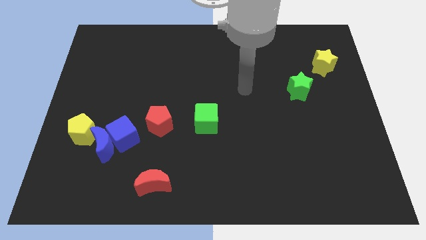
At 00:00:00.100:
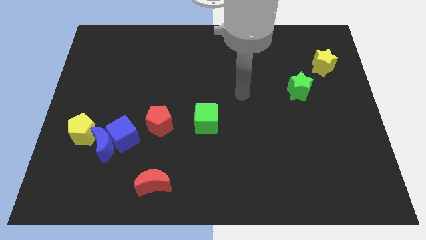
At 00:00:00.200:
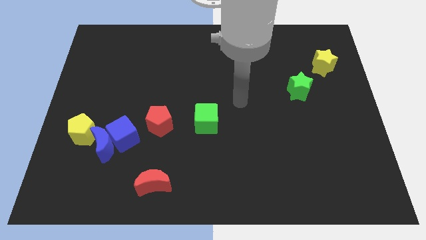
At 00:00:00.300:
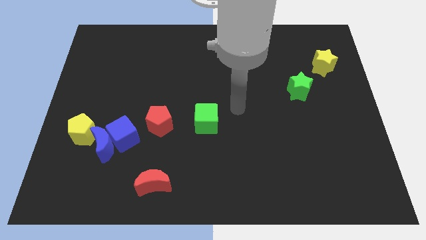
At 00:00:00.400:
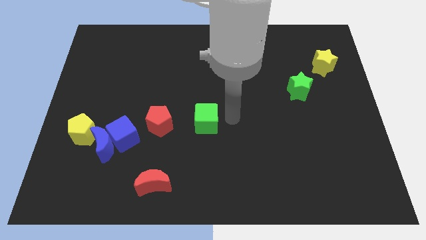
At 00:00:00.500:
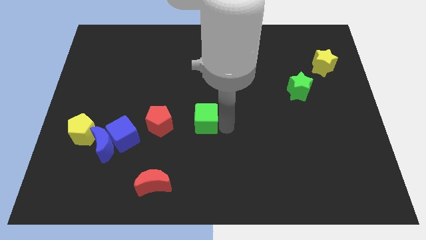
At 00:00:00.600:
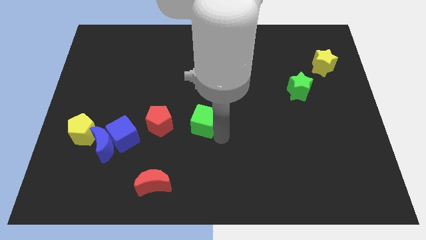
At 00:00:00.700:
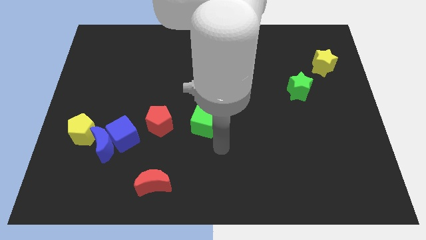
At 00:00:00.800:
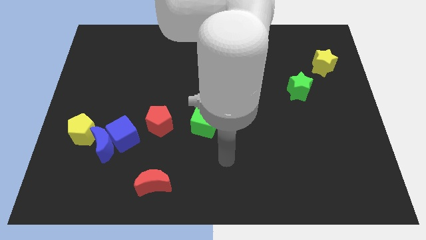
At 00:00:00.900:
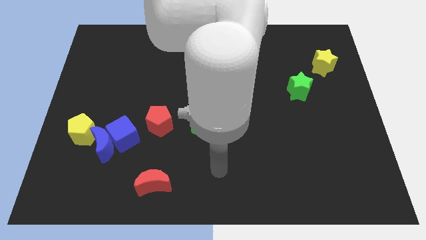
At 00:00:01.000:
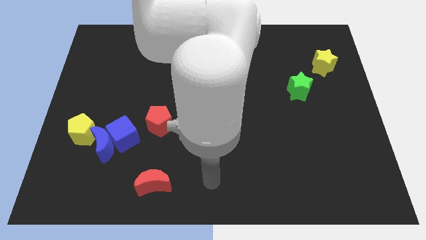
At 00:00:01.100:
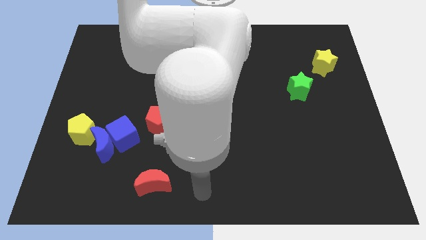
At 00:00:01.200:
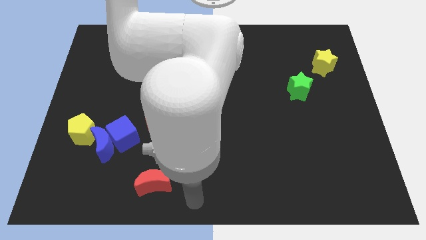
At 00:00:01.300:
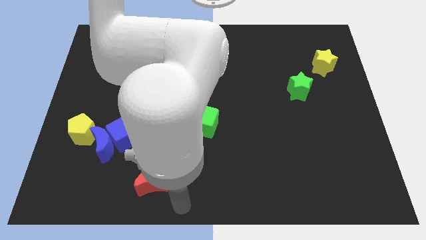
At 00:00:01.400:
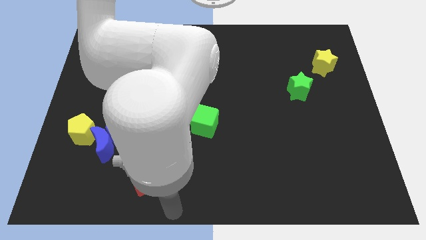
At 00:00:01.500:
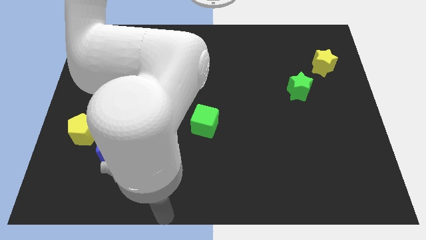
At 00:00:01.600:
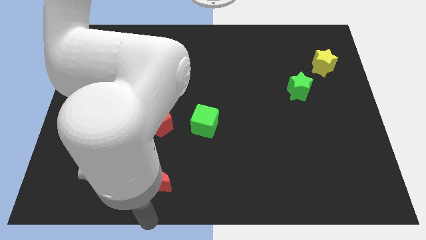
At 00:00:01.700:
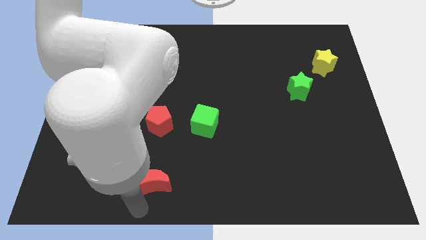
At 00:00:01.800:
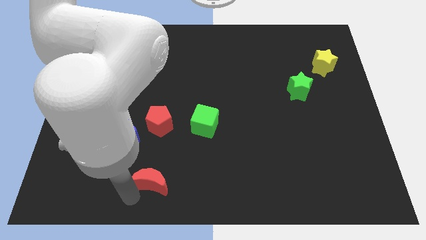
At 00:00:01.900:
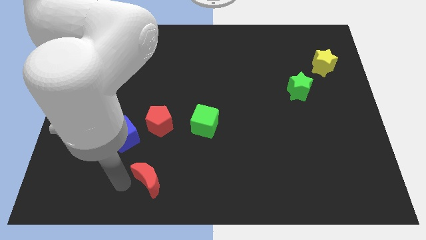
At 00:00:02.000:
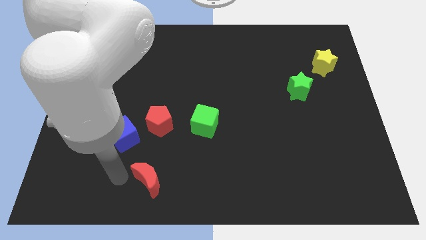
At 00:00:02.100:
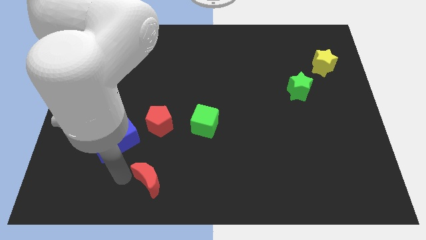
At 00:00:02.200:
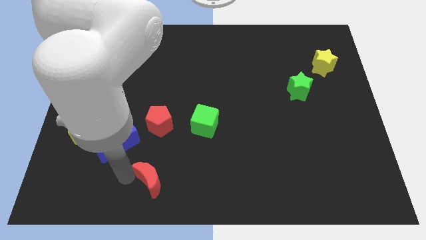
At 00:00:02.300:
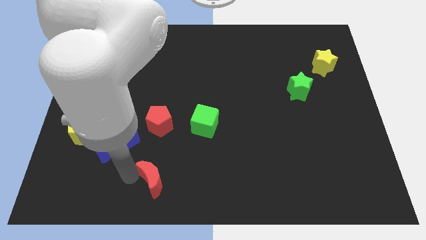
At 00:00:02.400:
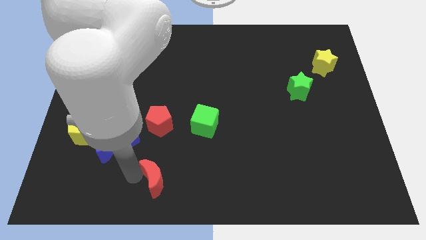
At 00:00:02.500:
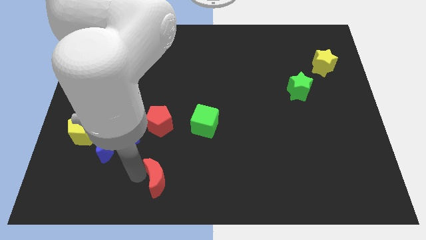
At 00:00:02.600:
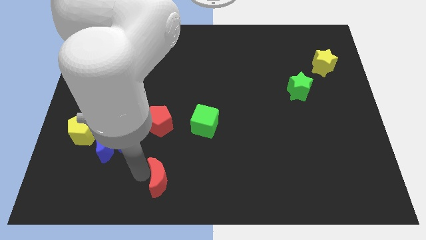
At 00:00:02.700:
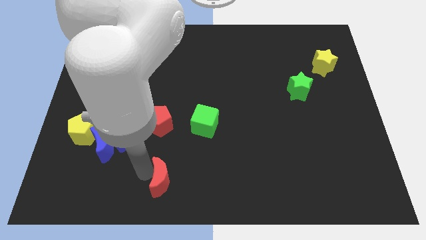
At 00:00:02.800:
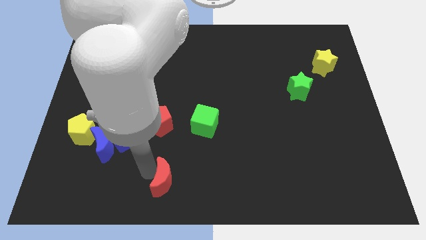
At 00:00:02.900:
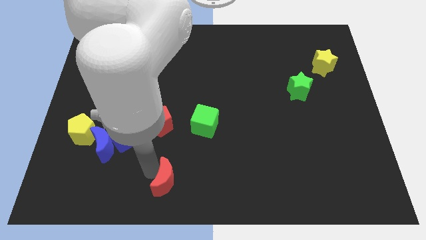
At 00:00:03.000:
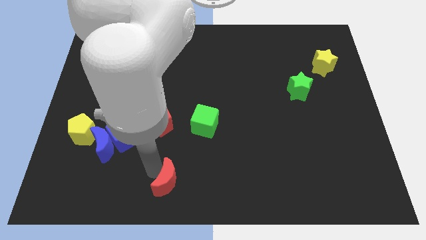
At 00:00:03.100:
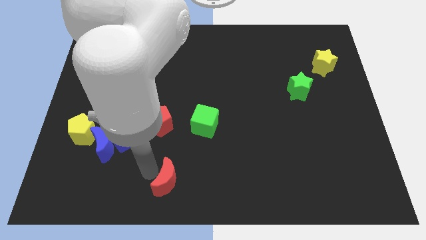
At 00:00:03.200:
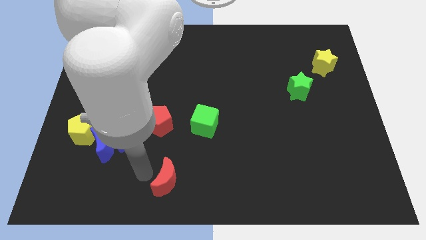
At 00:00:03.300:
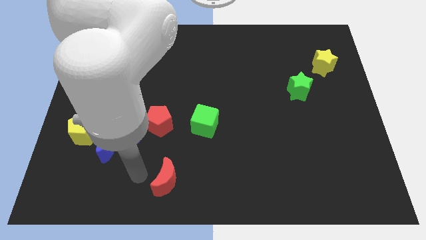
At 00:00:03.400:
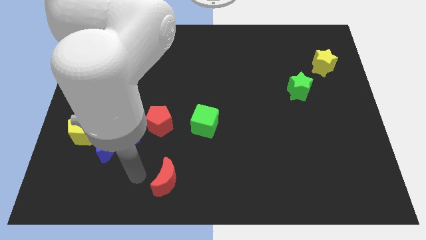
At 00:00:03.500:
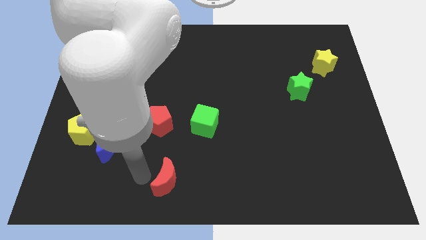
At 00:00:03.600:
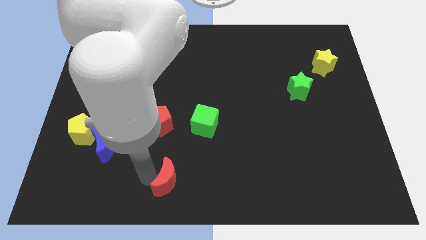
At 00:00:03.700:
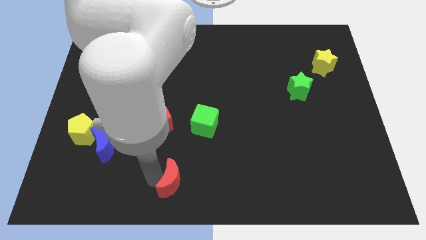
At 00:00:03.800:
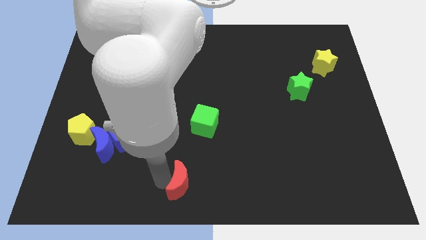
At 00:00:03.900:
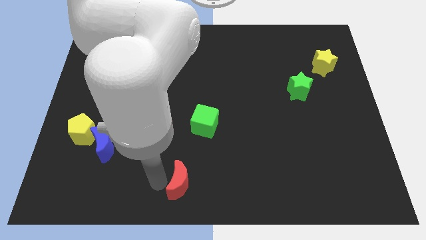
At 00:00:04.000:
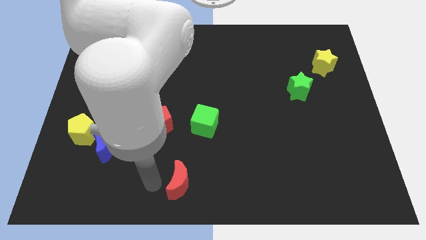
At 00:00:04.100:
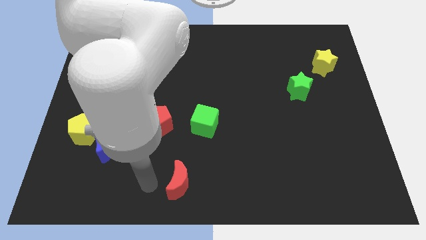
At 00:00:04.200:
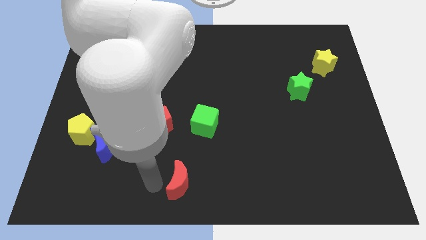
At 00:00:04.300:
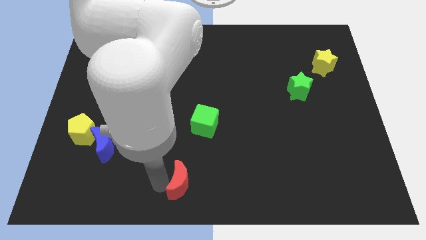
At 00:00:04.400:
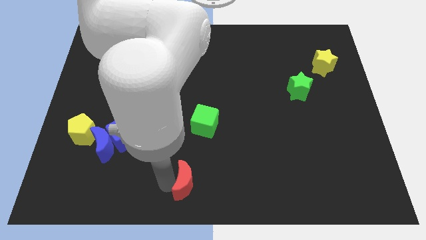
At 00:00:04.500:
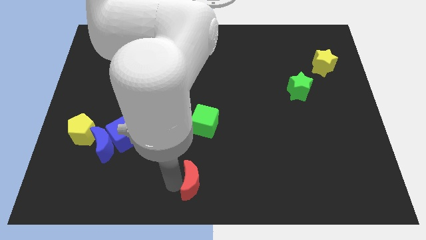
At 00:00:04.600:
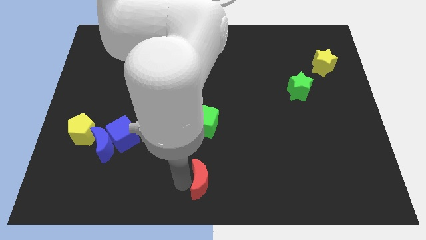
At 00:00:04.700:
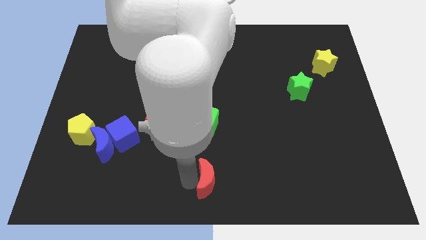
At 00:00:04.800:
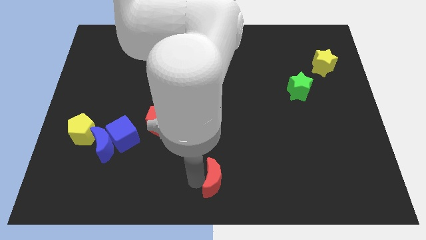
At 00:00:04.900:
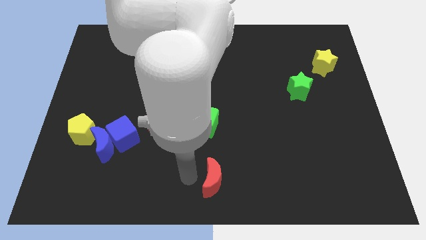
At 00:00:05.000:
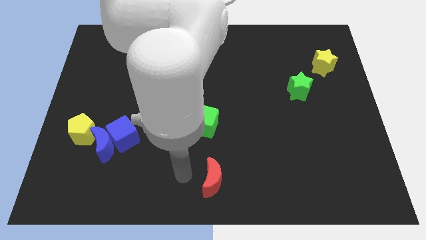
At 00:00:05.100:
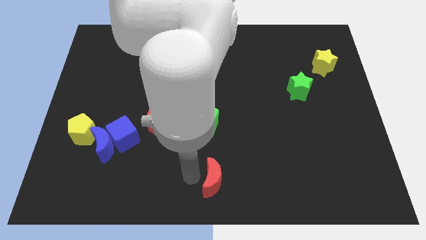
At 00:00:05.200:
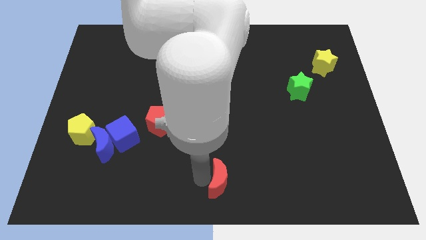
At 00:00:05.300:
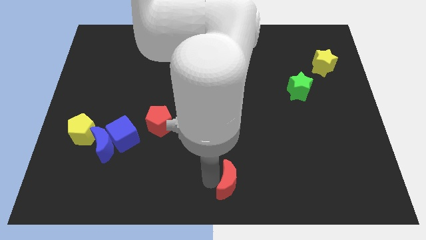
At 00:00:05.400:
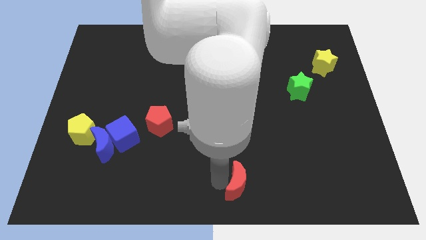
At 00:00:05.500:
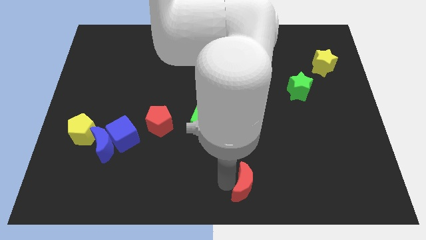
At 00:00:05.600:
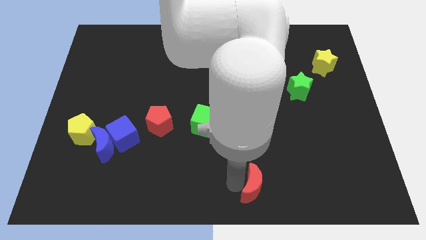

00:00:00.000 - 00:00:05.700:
move the red moon to the right

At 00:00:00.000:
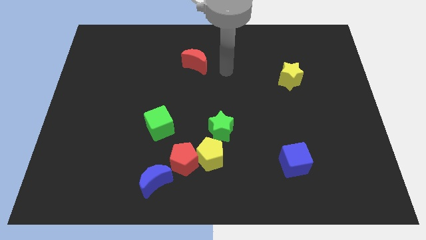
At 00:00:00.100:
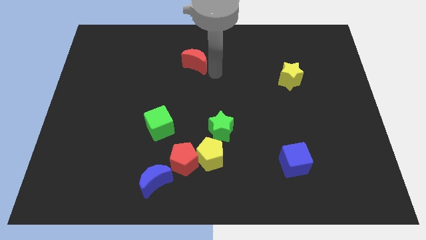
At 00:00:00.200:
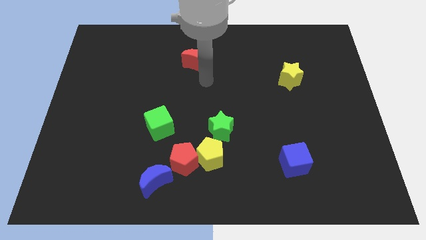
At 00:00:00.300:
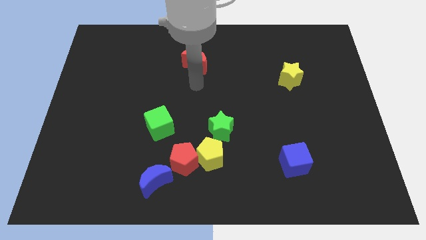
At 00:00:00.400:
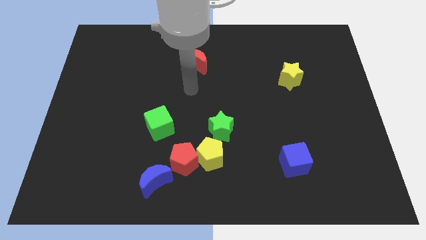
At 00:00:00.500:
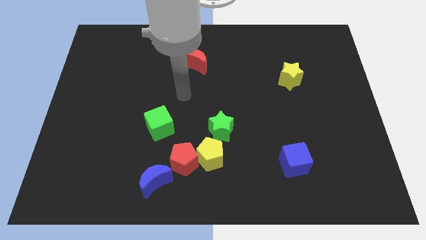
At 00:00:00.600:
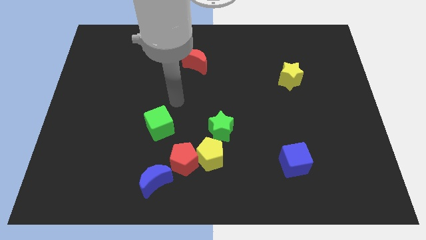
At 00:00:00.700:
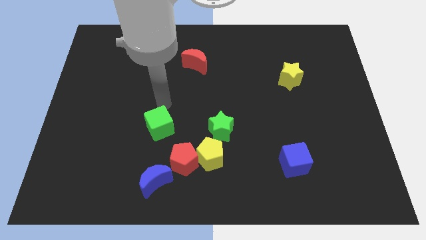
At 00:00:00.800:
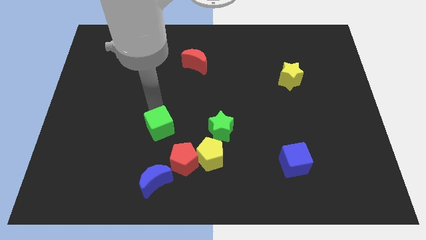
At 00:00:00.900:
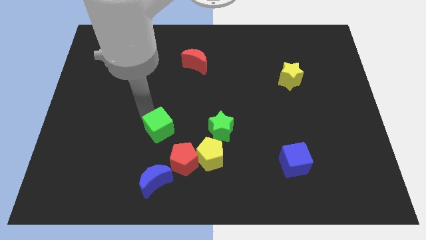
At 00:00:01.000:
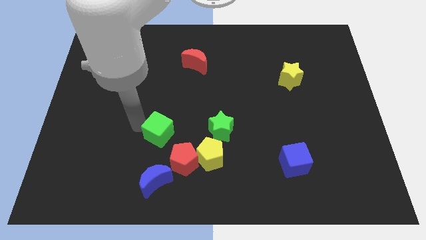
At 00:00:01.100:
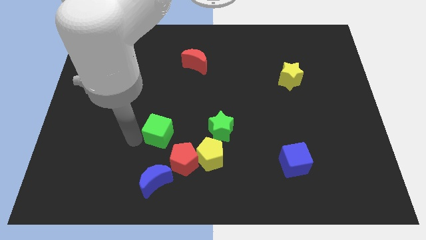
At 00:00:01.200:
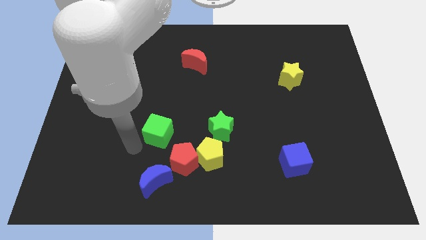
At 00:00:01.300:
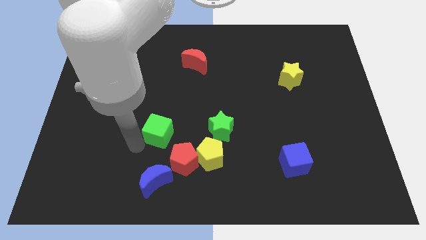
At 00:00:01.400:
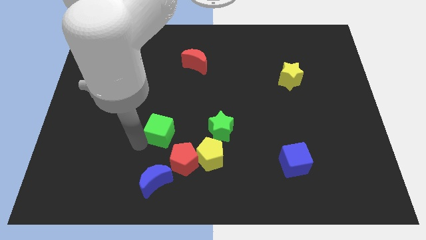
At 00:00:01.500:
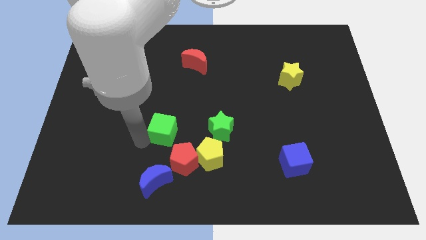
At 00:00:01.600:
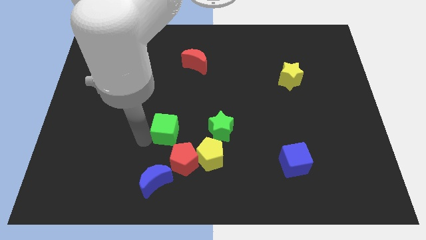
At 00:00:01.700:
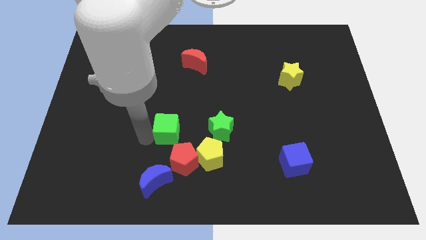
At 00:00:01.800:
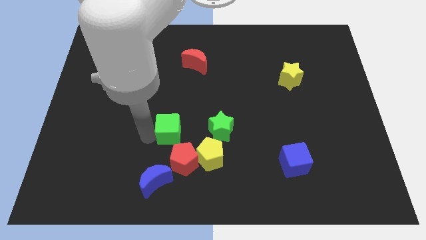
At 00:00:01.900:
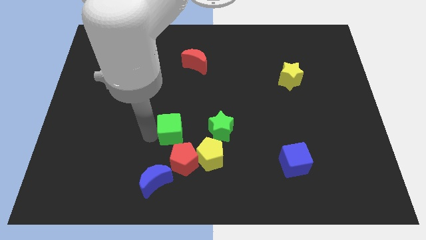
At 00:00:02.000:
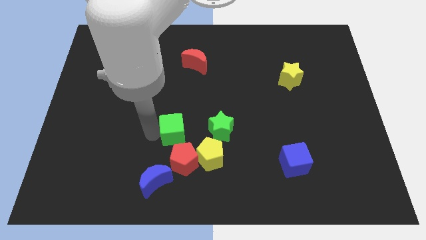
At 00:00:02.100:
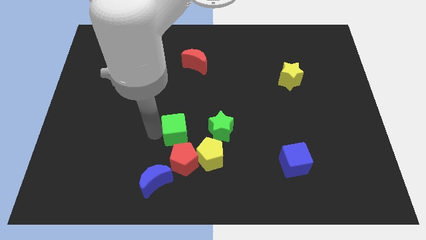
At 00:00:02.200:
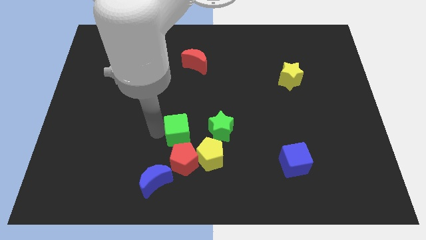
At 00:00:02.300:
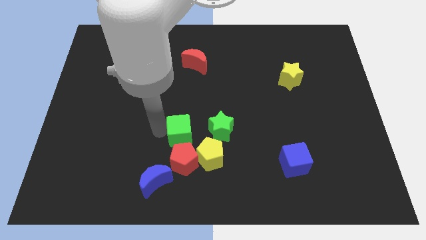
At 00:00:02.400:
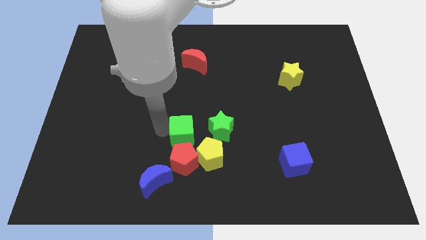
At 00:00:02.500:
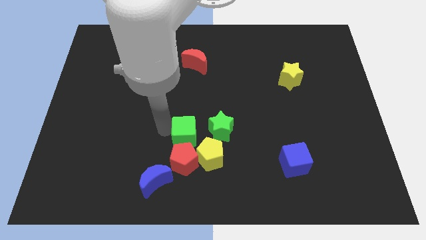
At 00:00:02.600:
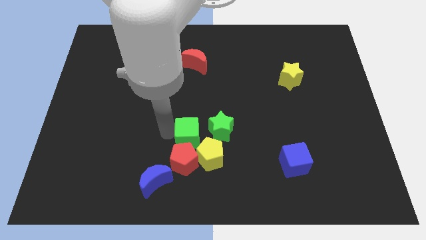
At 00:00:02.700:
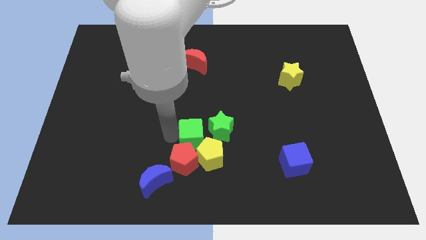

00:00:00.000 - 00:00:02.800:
slide the green cube down and then right a little
